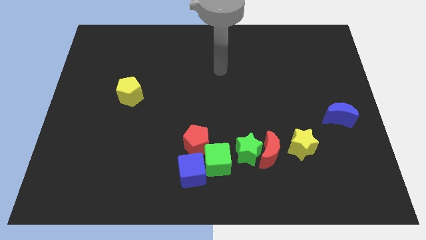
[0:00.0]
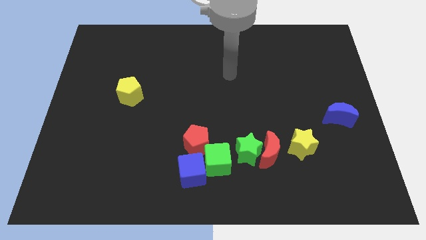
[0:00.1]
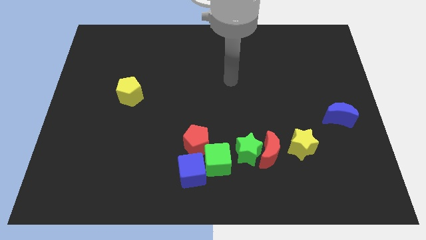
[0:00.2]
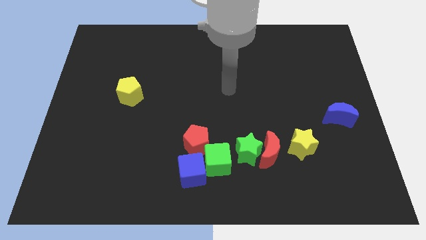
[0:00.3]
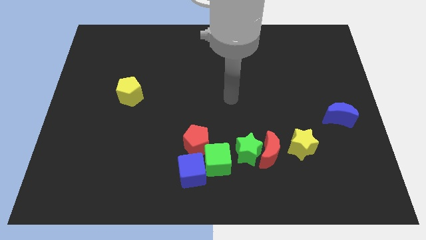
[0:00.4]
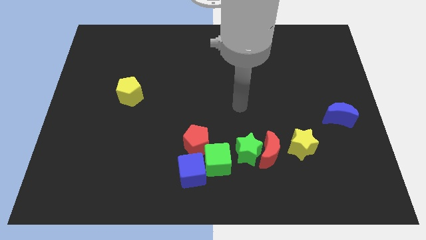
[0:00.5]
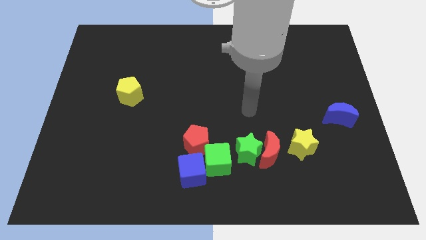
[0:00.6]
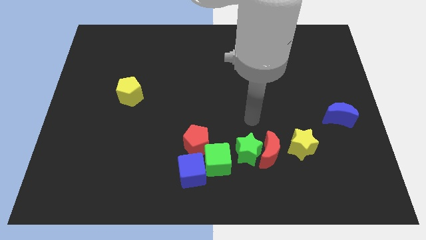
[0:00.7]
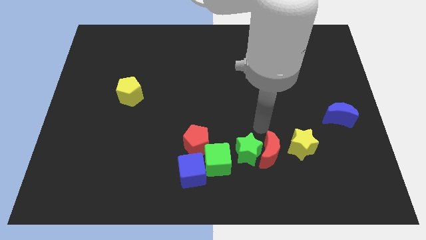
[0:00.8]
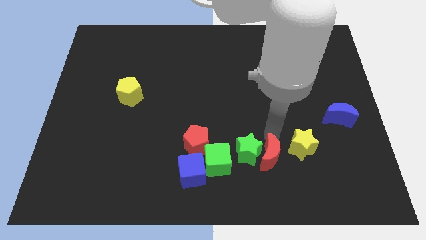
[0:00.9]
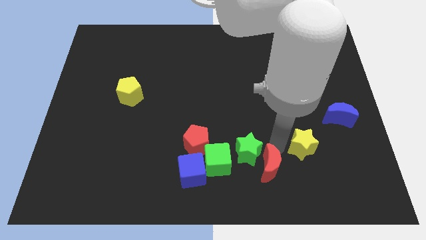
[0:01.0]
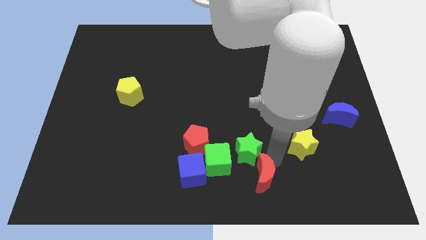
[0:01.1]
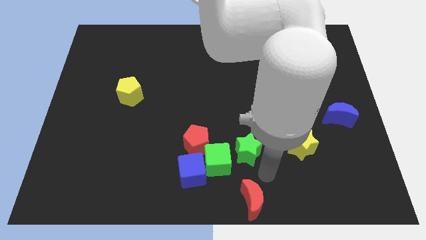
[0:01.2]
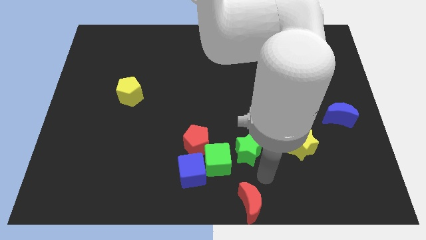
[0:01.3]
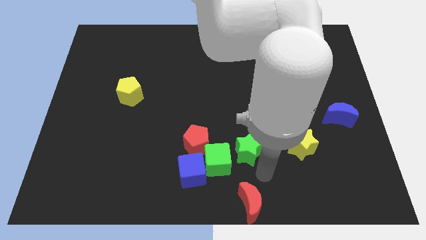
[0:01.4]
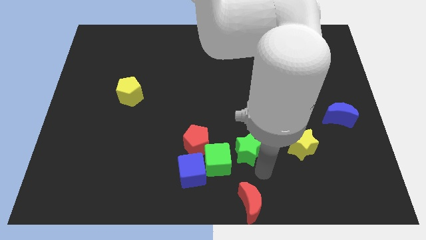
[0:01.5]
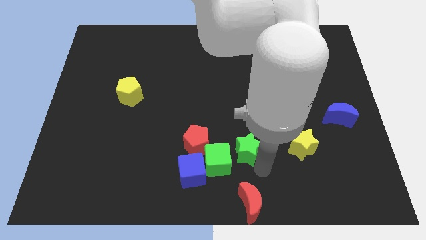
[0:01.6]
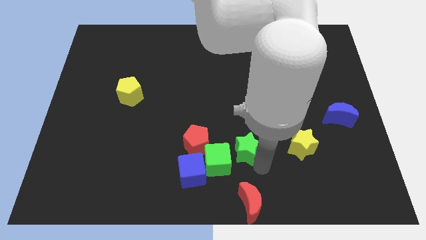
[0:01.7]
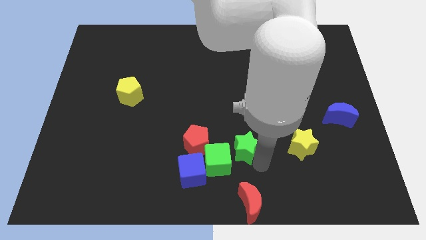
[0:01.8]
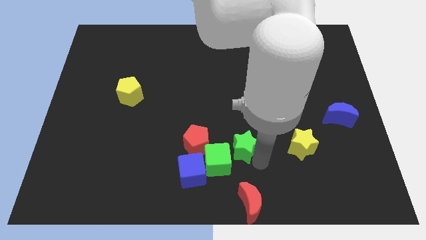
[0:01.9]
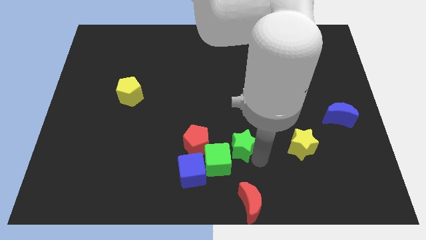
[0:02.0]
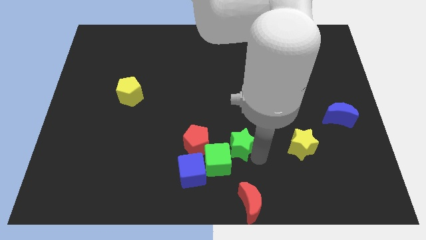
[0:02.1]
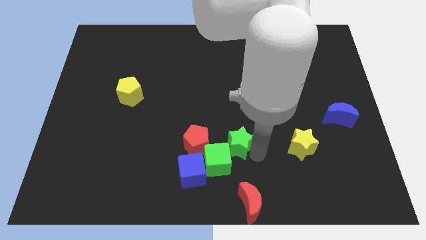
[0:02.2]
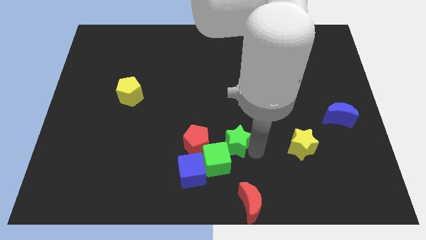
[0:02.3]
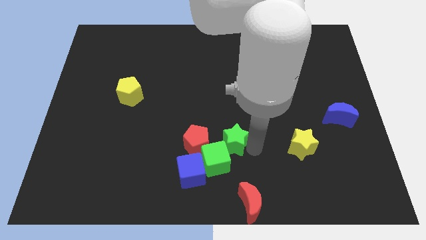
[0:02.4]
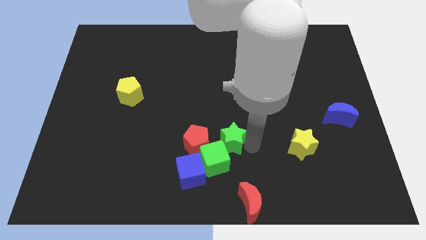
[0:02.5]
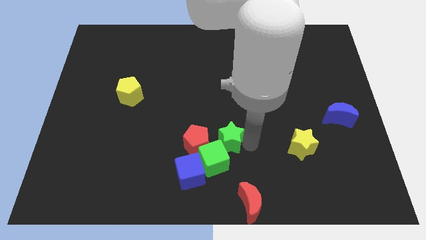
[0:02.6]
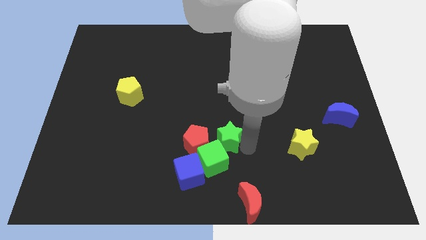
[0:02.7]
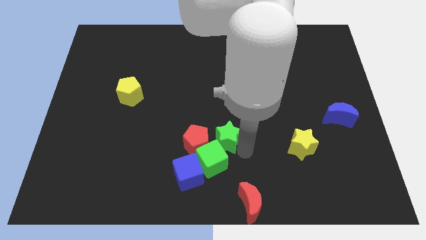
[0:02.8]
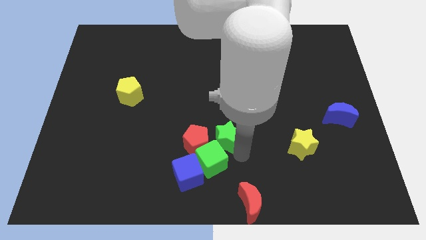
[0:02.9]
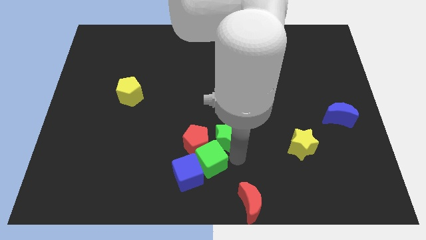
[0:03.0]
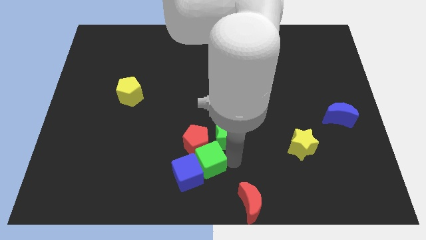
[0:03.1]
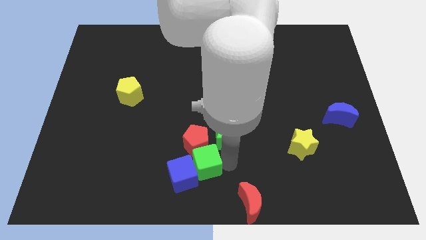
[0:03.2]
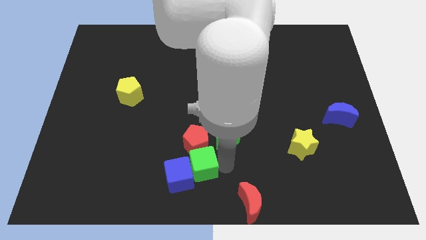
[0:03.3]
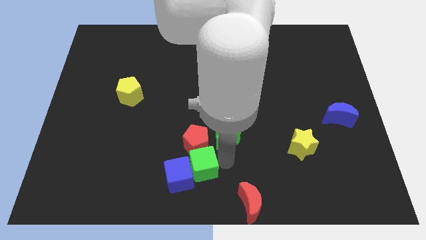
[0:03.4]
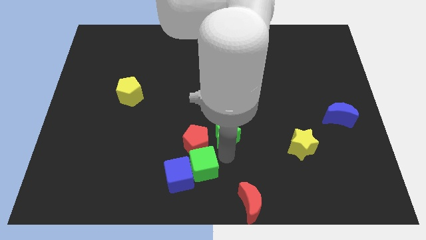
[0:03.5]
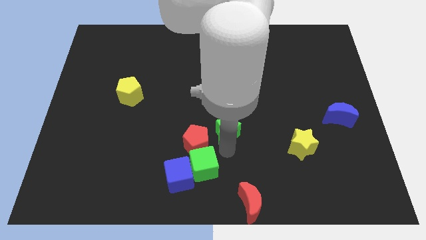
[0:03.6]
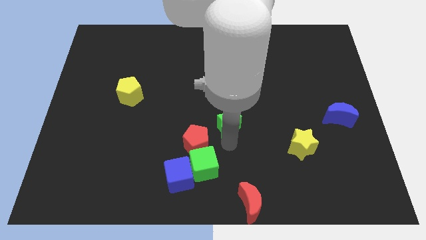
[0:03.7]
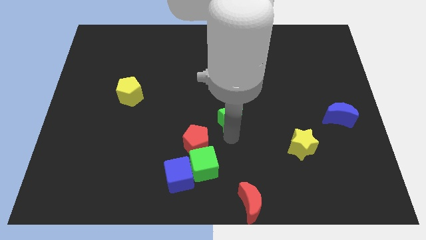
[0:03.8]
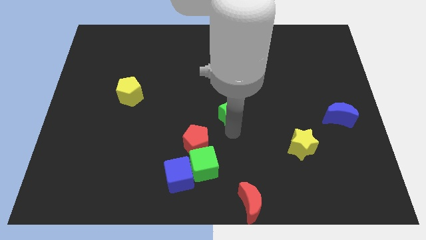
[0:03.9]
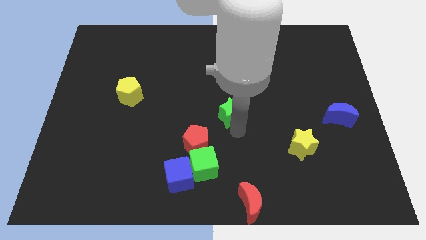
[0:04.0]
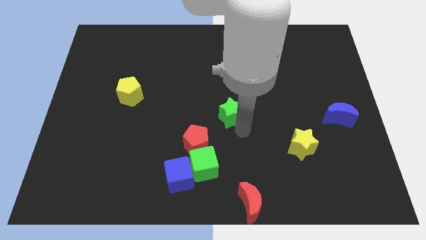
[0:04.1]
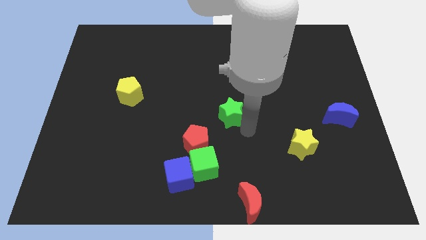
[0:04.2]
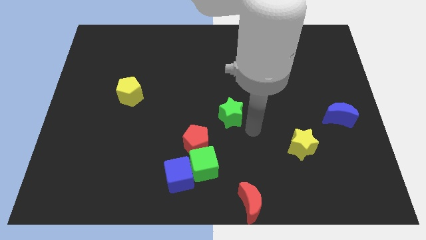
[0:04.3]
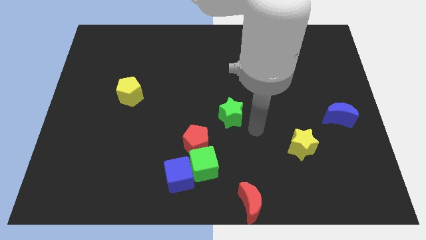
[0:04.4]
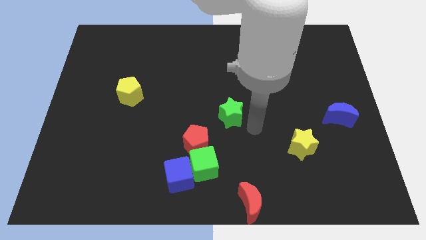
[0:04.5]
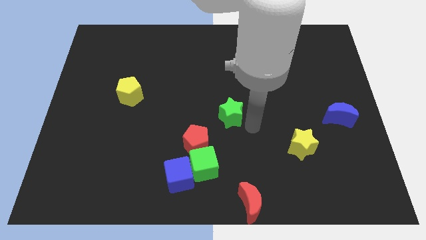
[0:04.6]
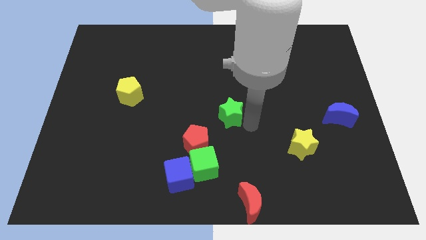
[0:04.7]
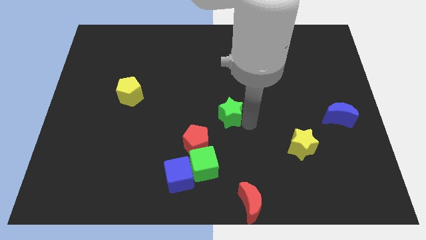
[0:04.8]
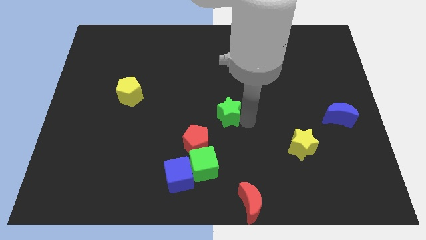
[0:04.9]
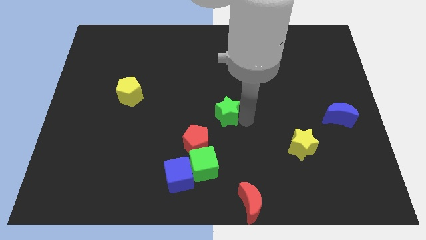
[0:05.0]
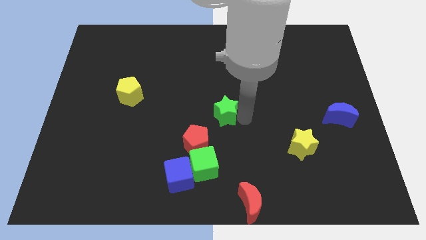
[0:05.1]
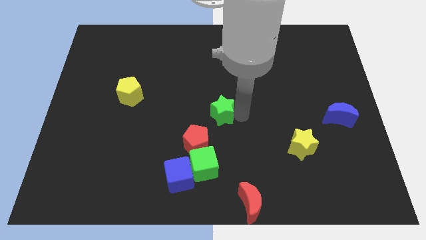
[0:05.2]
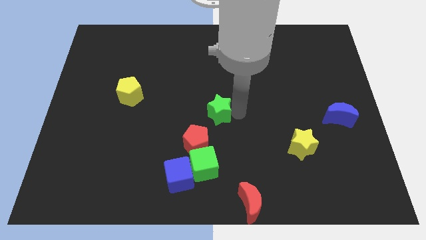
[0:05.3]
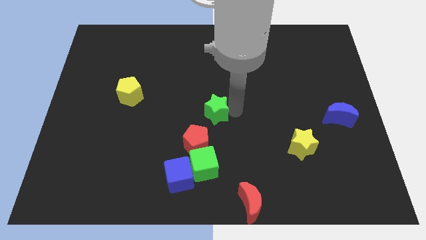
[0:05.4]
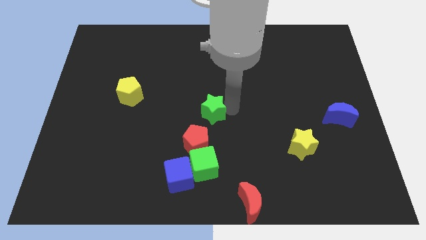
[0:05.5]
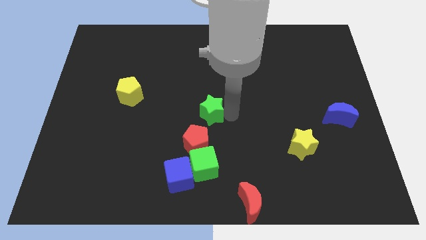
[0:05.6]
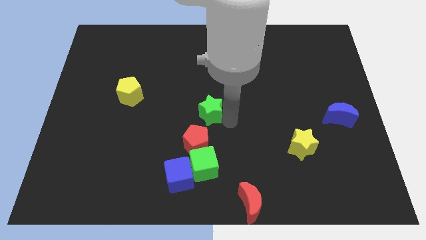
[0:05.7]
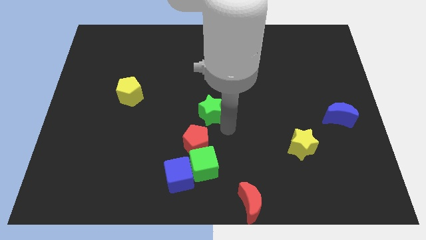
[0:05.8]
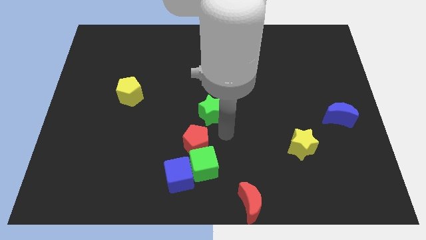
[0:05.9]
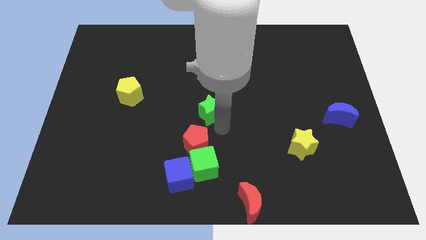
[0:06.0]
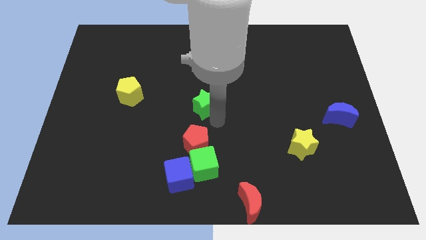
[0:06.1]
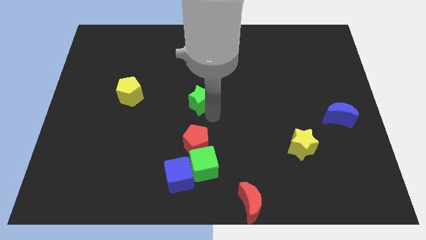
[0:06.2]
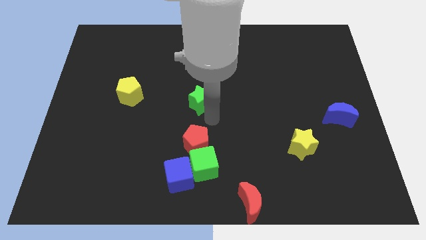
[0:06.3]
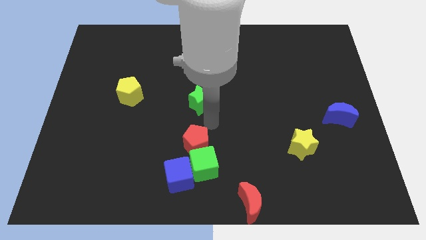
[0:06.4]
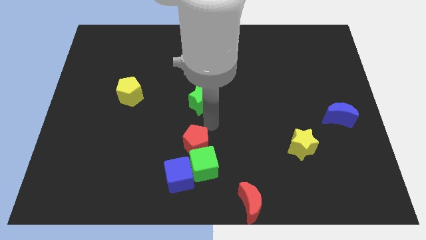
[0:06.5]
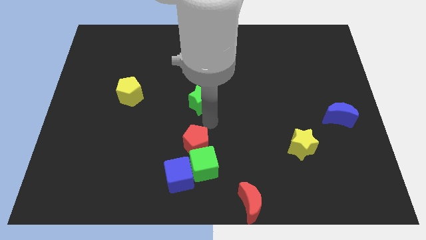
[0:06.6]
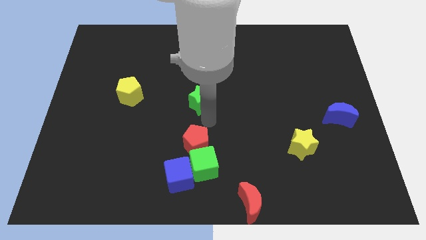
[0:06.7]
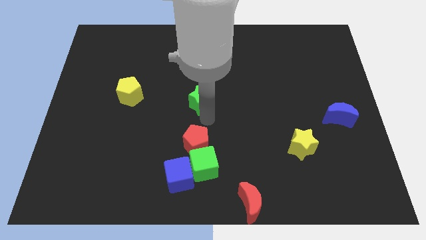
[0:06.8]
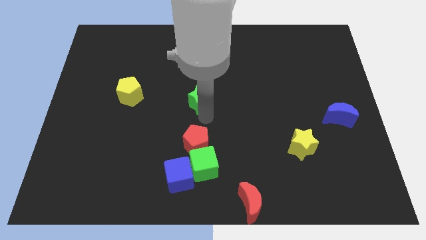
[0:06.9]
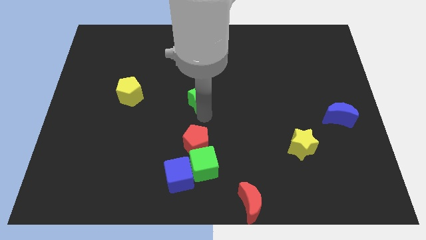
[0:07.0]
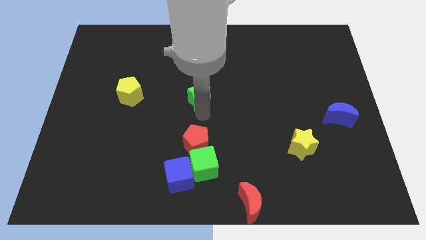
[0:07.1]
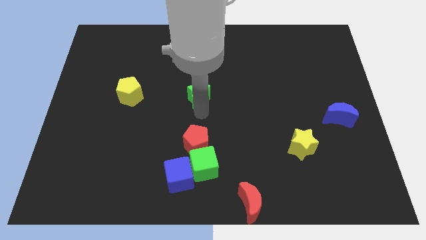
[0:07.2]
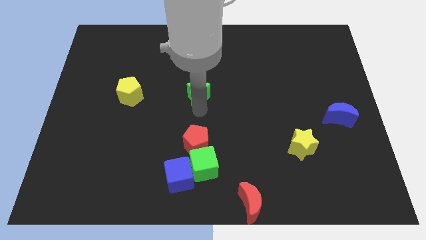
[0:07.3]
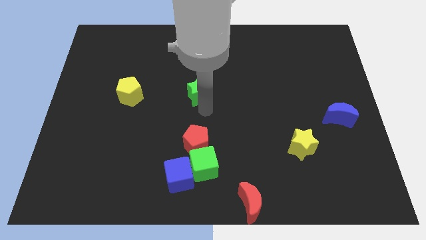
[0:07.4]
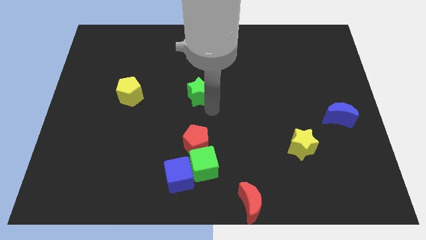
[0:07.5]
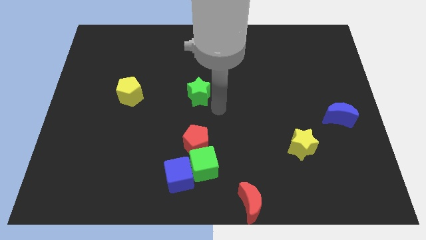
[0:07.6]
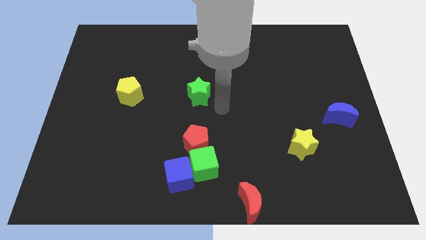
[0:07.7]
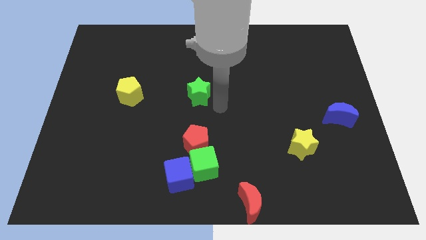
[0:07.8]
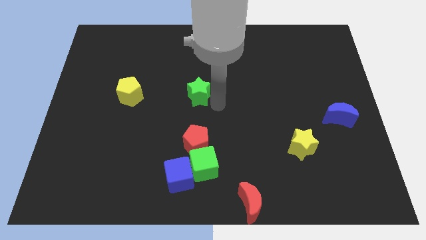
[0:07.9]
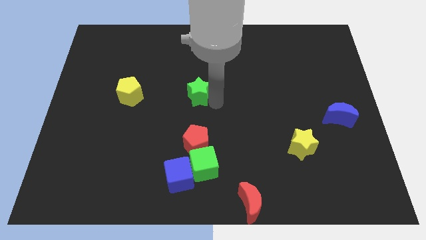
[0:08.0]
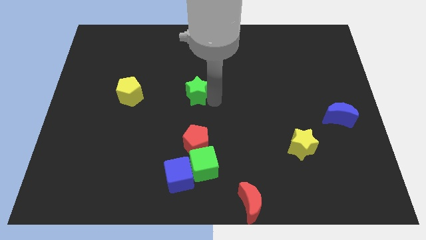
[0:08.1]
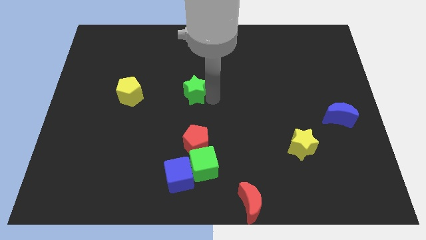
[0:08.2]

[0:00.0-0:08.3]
push the green star up and to the left
